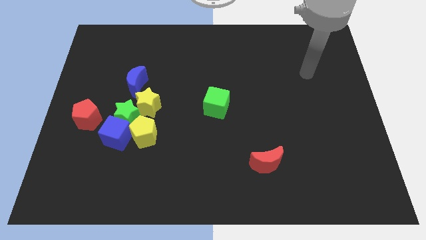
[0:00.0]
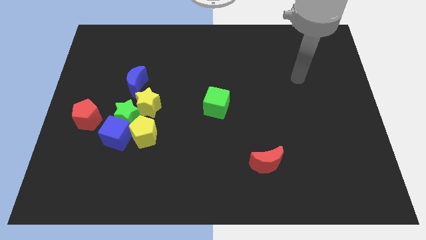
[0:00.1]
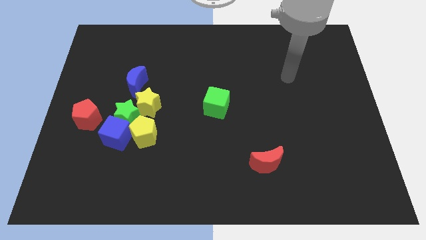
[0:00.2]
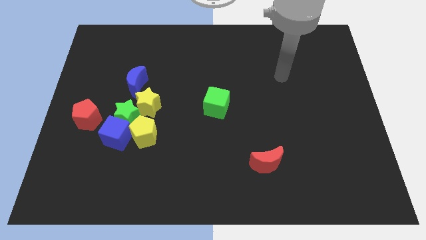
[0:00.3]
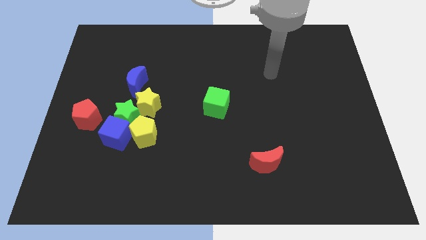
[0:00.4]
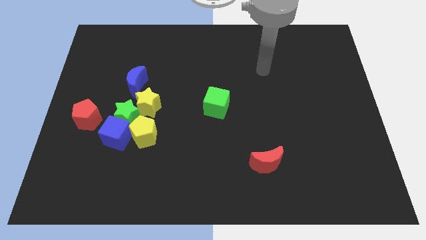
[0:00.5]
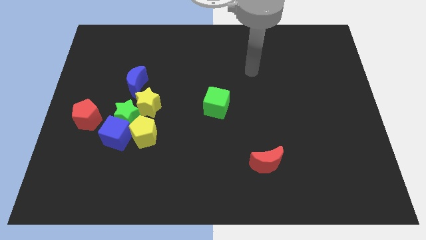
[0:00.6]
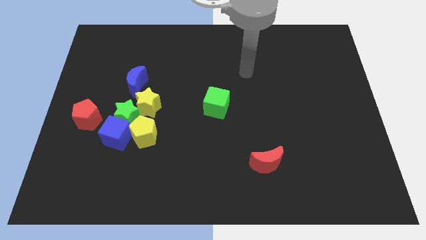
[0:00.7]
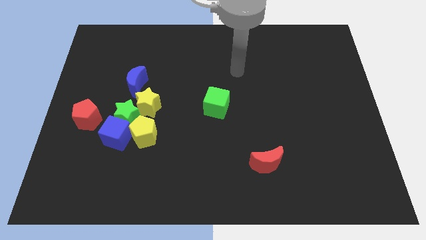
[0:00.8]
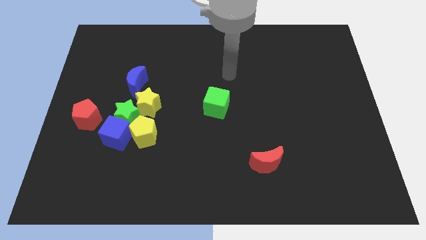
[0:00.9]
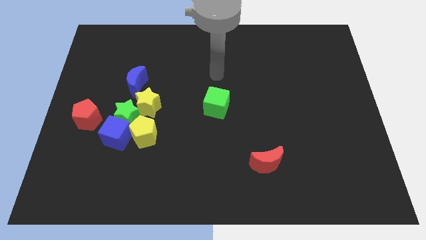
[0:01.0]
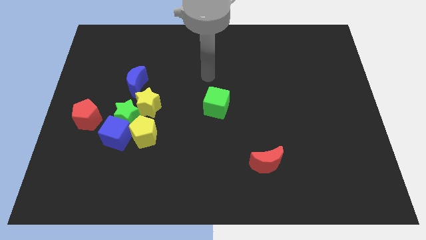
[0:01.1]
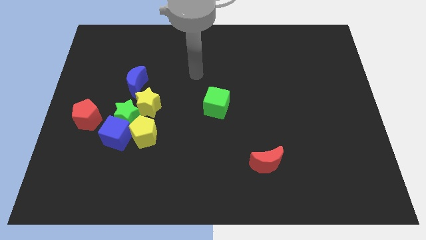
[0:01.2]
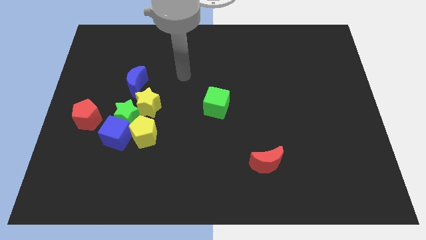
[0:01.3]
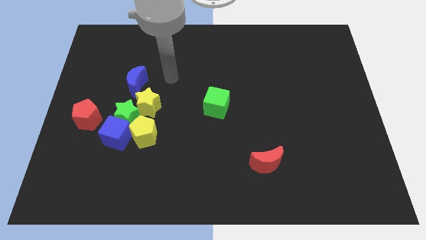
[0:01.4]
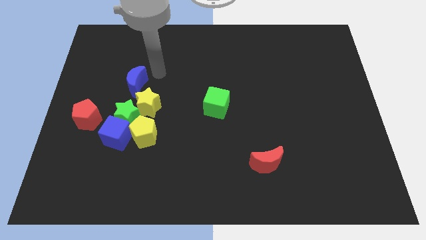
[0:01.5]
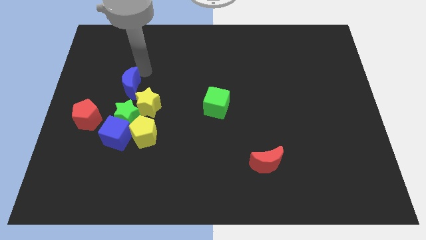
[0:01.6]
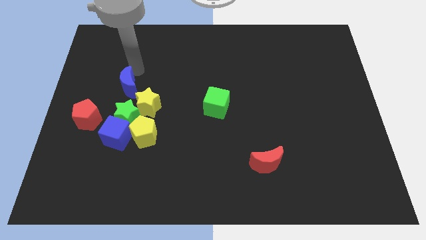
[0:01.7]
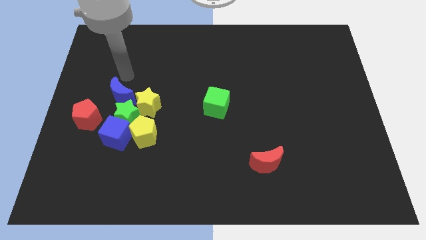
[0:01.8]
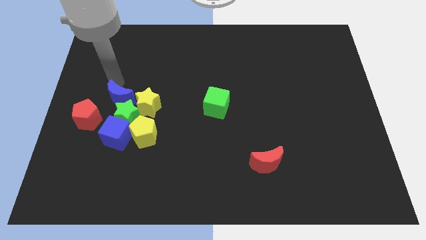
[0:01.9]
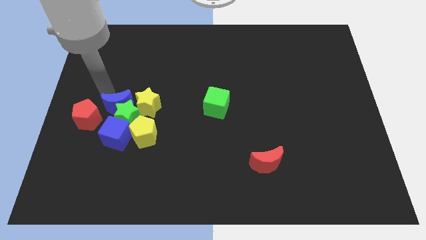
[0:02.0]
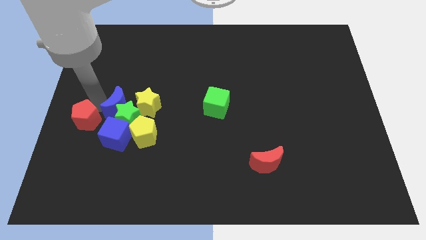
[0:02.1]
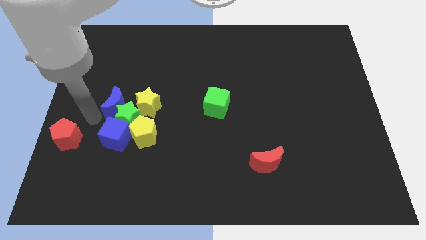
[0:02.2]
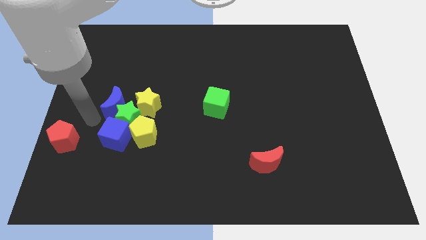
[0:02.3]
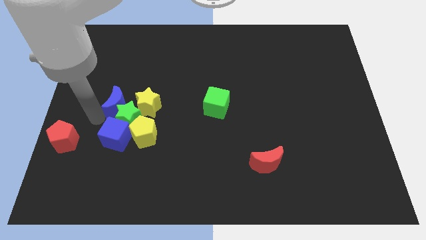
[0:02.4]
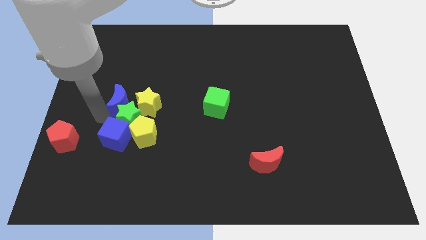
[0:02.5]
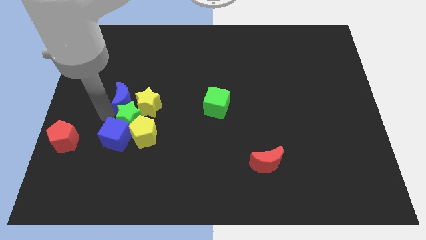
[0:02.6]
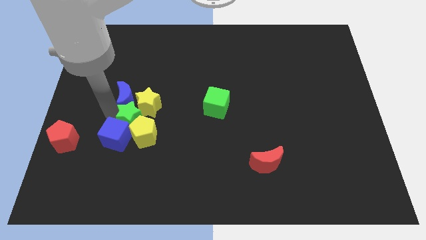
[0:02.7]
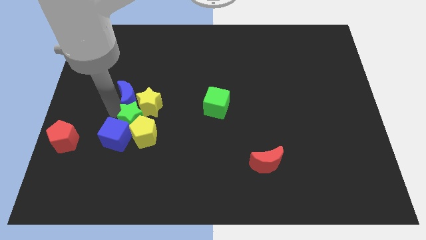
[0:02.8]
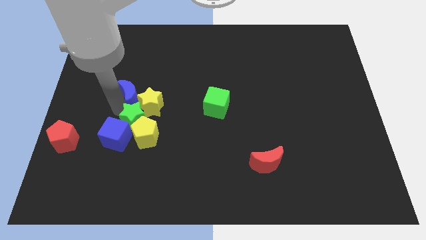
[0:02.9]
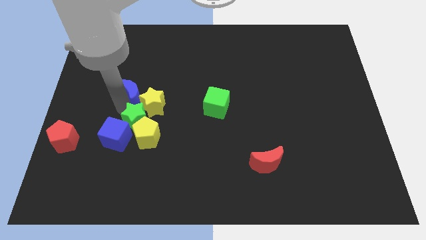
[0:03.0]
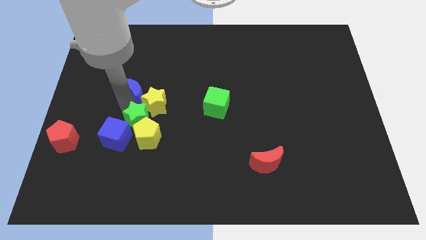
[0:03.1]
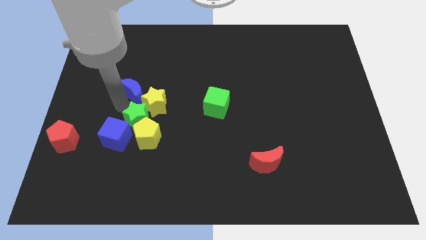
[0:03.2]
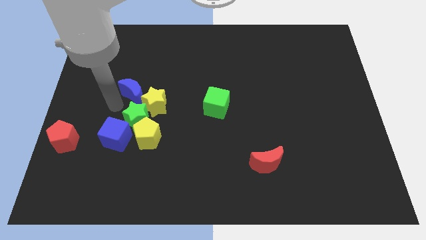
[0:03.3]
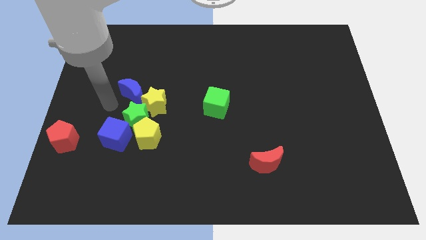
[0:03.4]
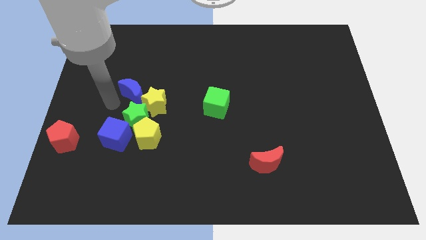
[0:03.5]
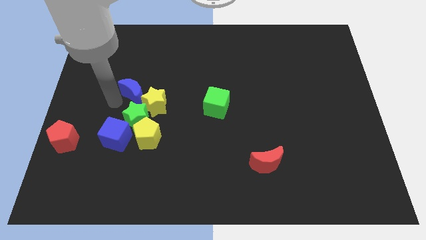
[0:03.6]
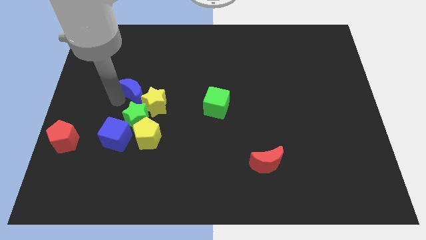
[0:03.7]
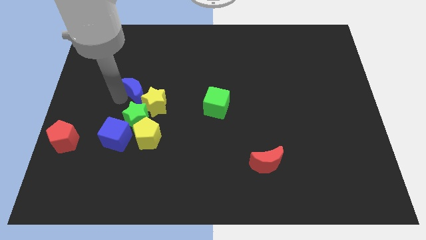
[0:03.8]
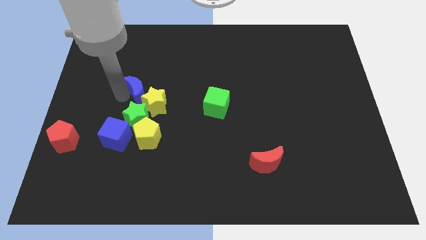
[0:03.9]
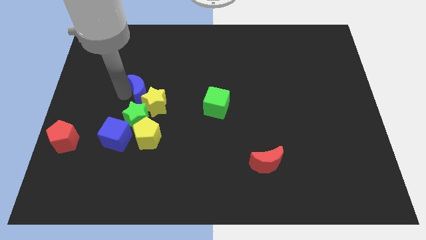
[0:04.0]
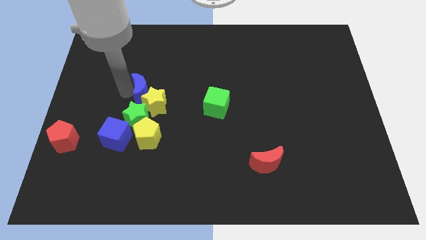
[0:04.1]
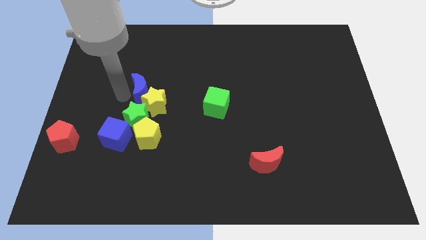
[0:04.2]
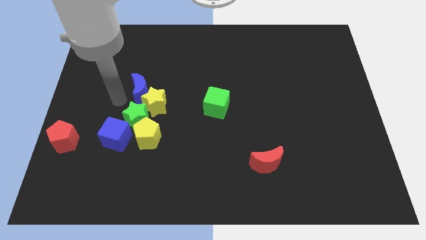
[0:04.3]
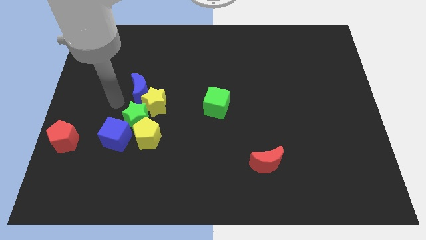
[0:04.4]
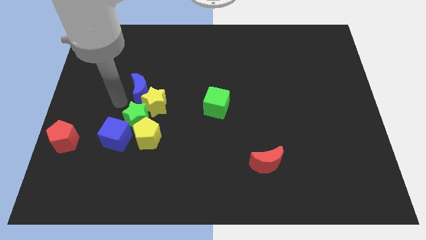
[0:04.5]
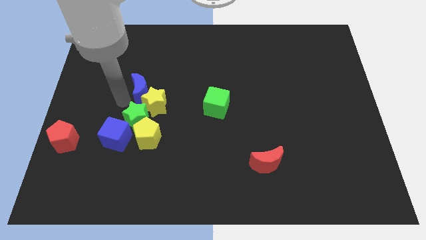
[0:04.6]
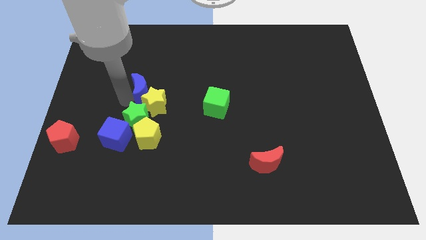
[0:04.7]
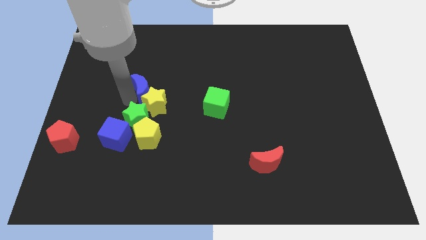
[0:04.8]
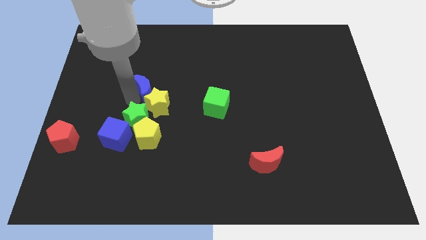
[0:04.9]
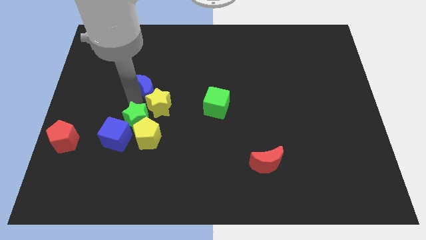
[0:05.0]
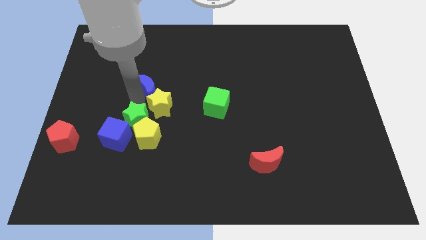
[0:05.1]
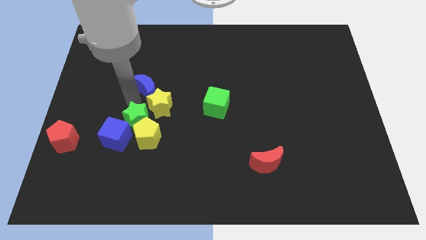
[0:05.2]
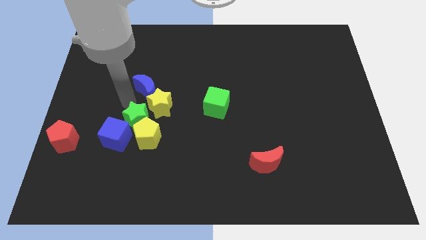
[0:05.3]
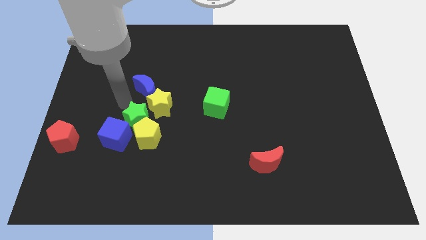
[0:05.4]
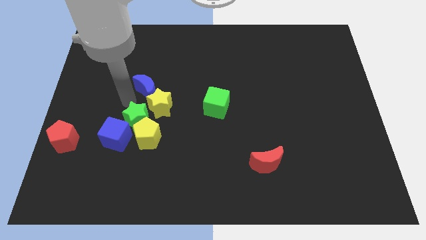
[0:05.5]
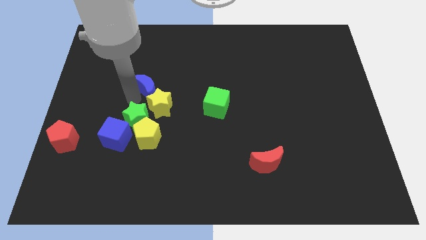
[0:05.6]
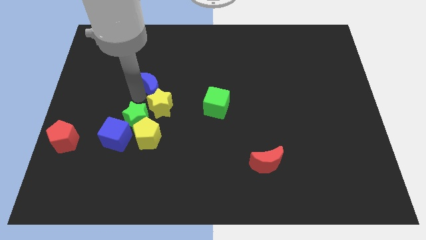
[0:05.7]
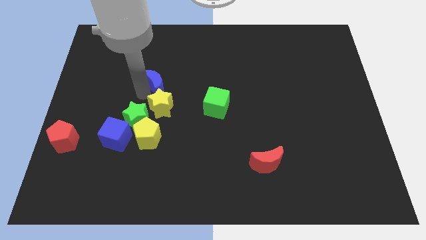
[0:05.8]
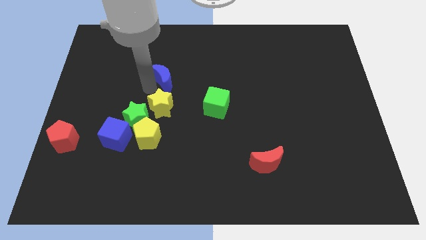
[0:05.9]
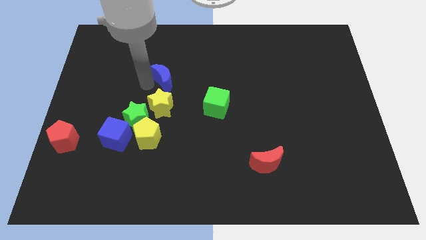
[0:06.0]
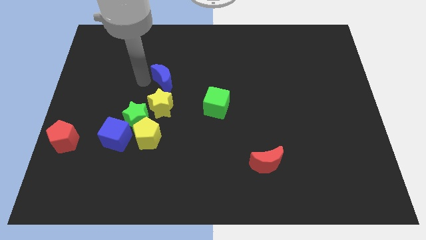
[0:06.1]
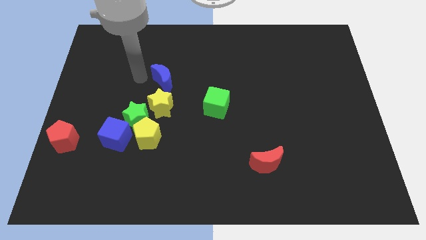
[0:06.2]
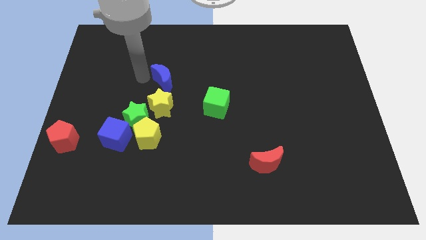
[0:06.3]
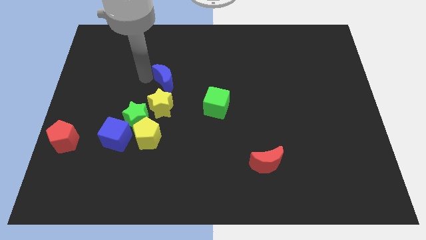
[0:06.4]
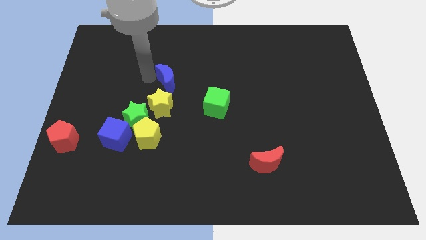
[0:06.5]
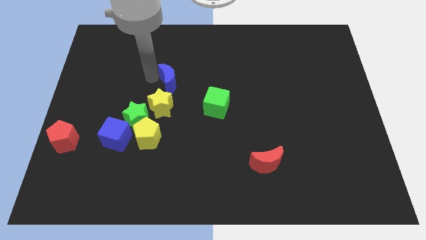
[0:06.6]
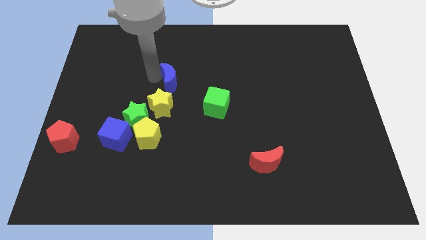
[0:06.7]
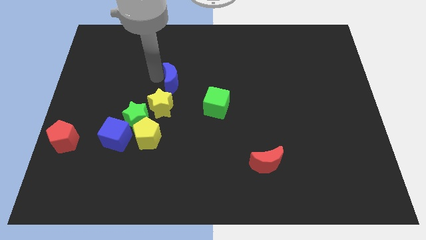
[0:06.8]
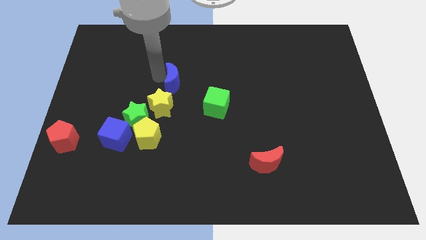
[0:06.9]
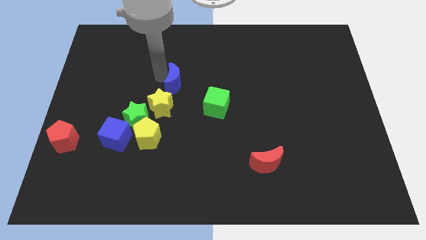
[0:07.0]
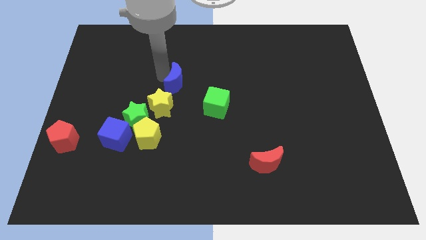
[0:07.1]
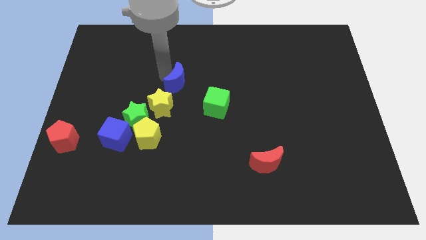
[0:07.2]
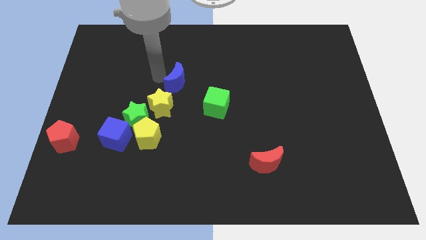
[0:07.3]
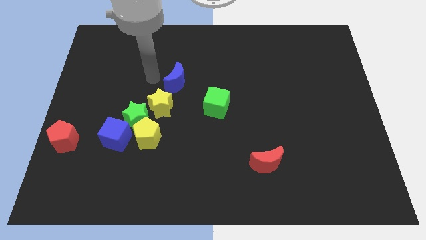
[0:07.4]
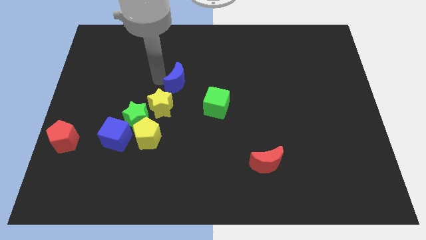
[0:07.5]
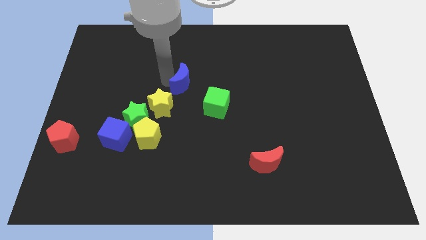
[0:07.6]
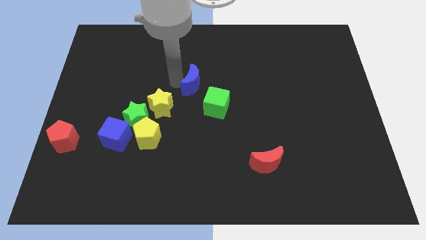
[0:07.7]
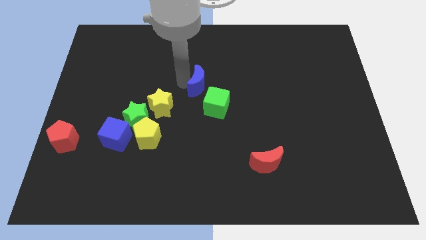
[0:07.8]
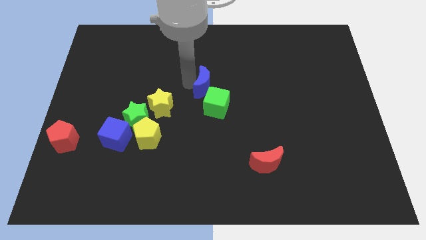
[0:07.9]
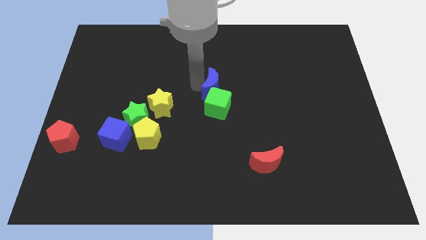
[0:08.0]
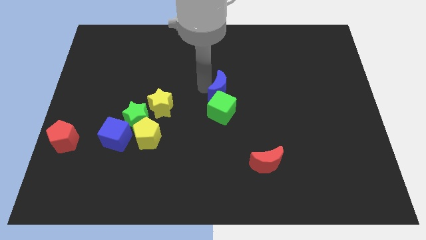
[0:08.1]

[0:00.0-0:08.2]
push the blue moon to the right
